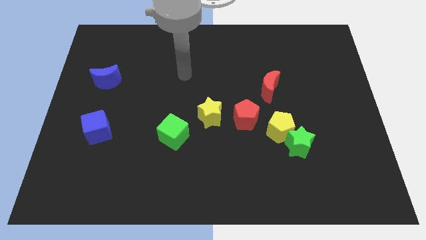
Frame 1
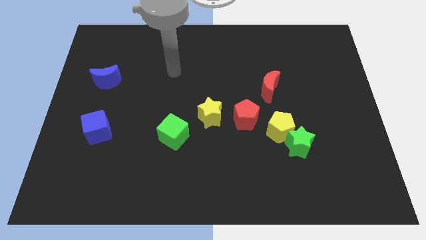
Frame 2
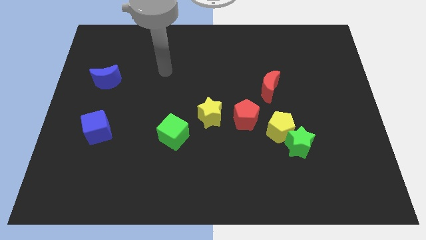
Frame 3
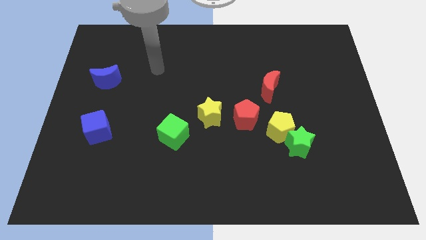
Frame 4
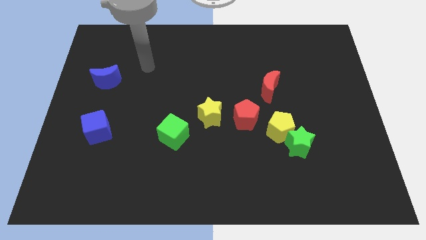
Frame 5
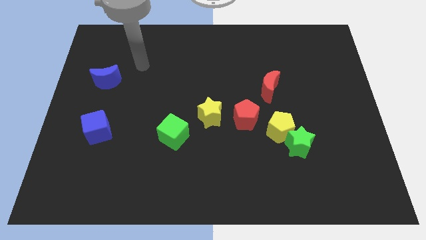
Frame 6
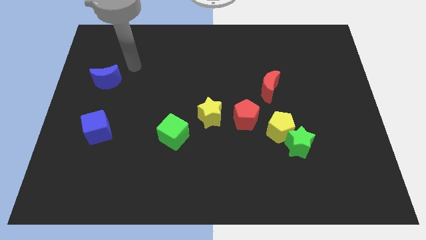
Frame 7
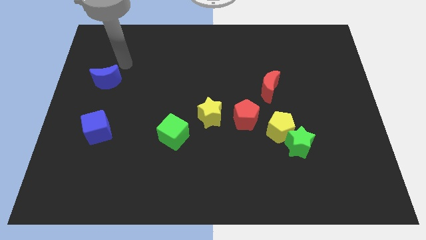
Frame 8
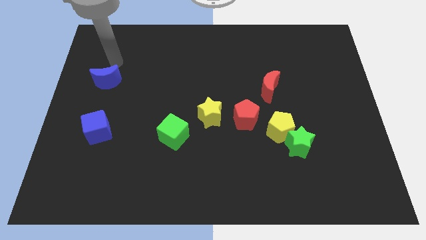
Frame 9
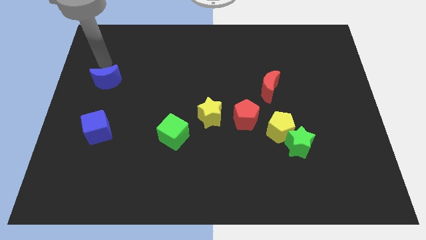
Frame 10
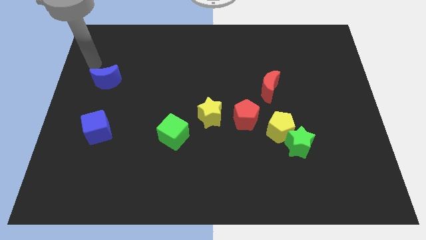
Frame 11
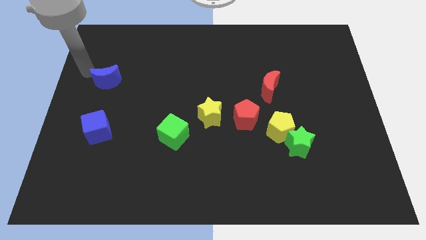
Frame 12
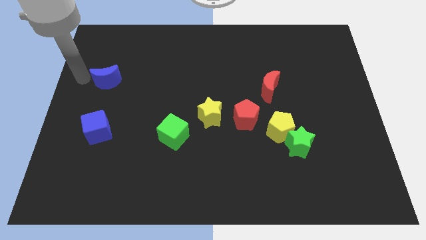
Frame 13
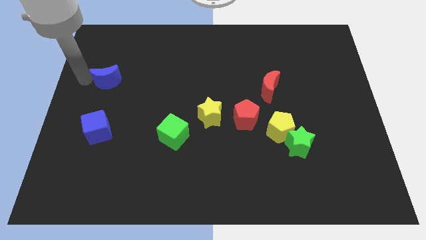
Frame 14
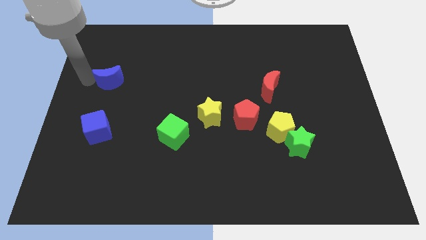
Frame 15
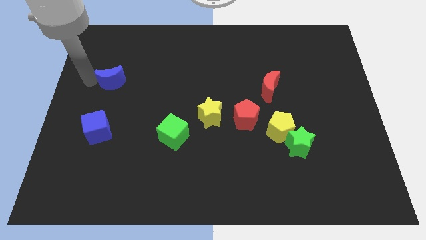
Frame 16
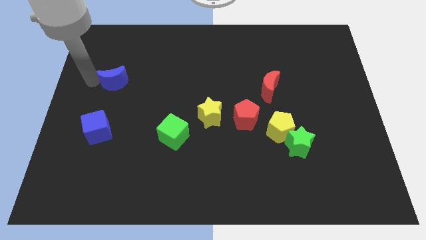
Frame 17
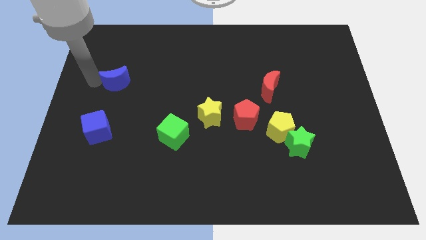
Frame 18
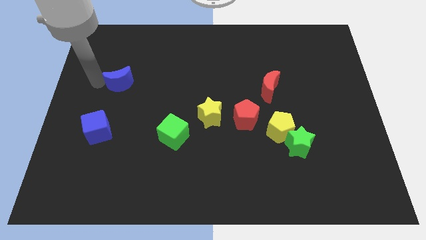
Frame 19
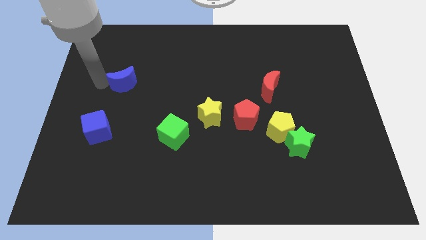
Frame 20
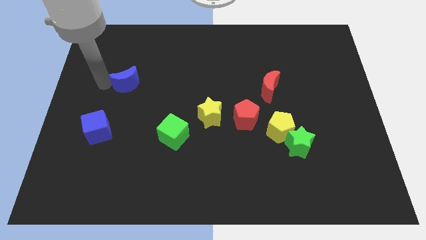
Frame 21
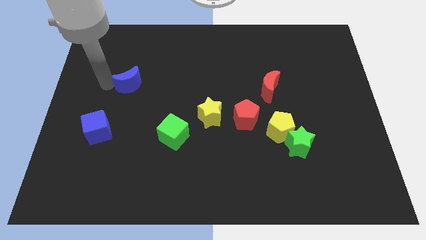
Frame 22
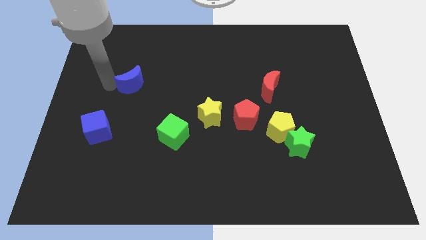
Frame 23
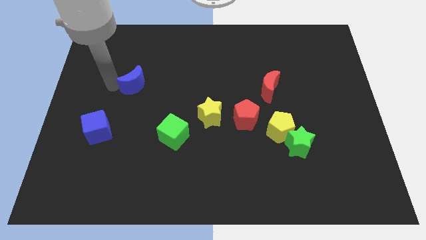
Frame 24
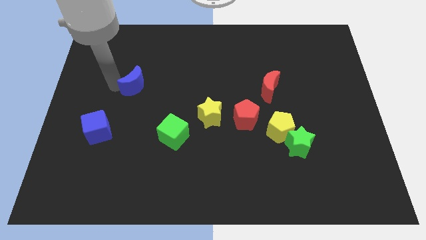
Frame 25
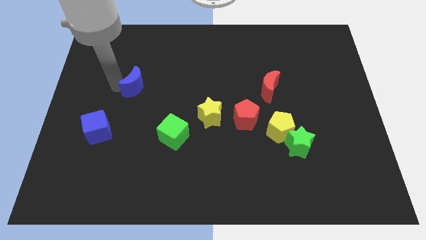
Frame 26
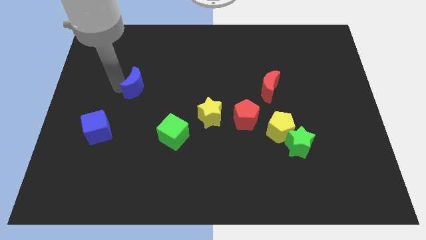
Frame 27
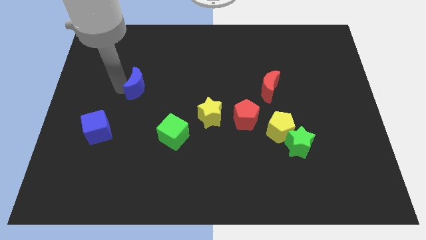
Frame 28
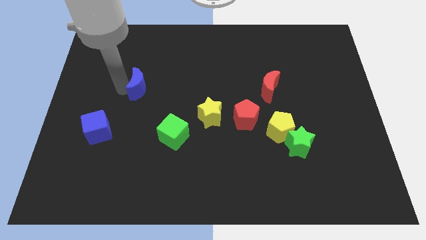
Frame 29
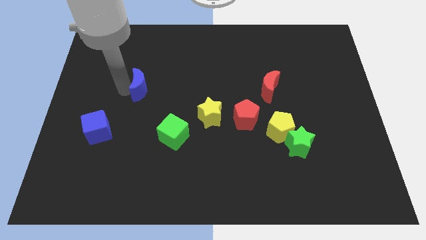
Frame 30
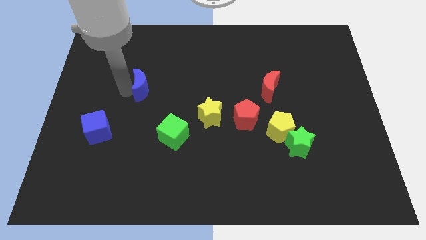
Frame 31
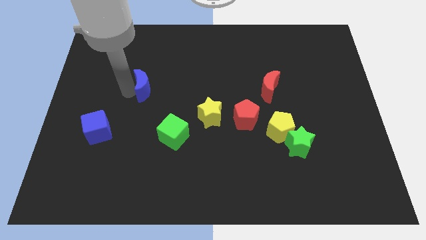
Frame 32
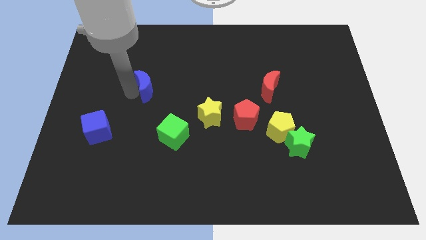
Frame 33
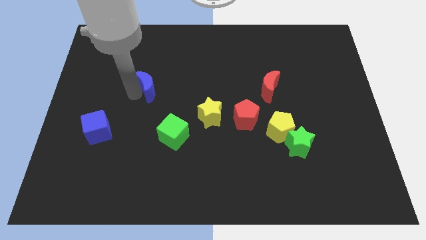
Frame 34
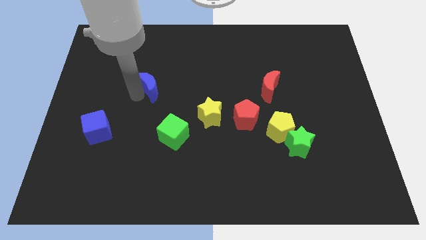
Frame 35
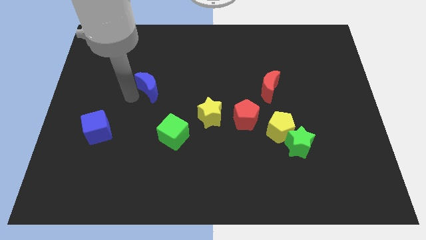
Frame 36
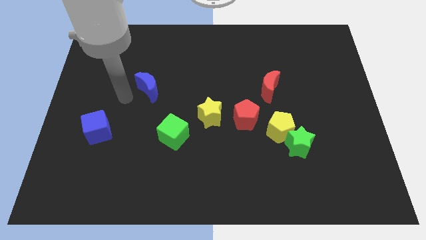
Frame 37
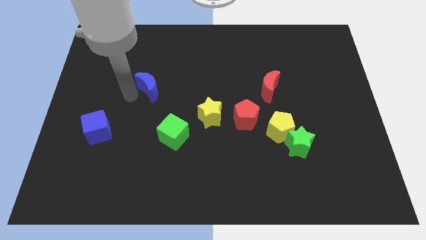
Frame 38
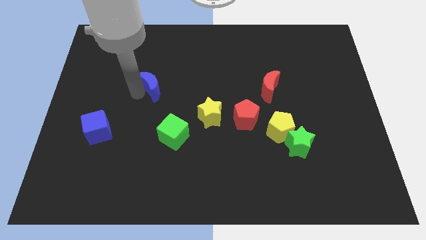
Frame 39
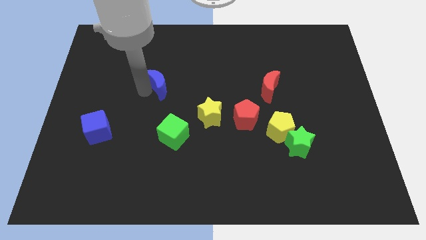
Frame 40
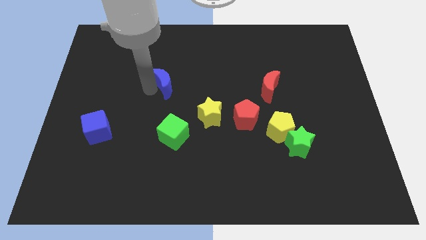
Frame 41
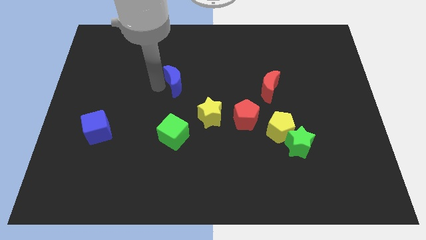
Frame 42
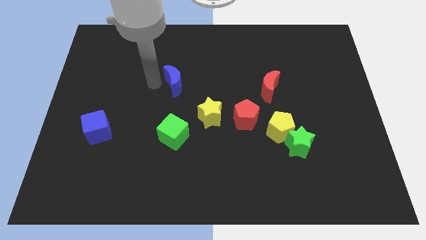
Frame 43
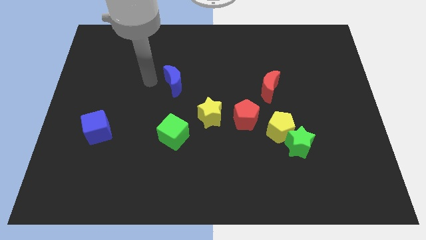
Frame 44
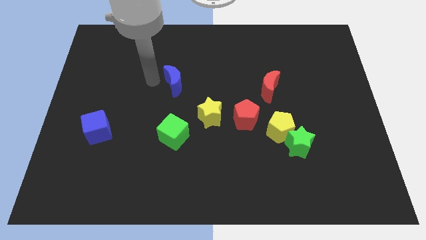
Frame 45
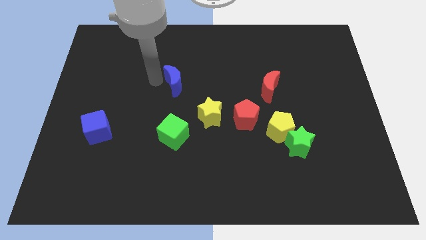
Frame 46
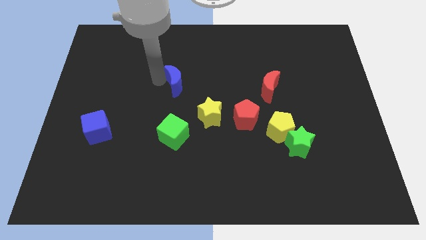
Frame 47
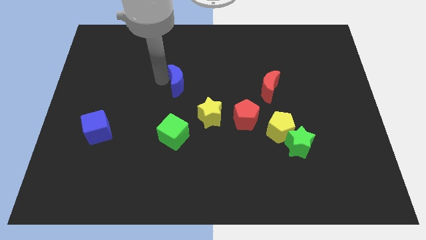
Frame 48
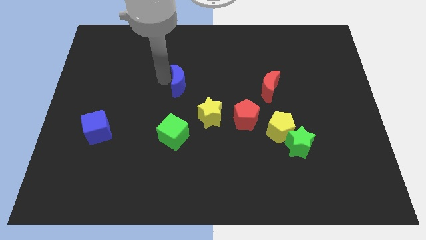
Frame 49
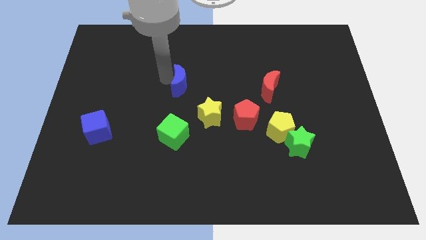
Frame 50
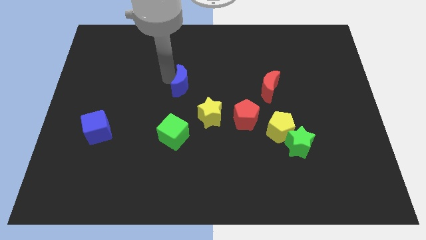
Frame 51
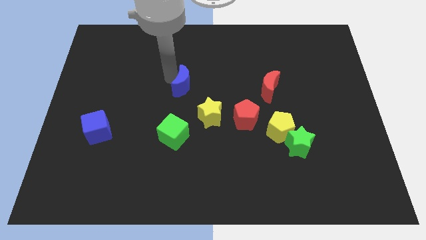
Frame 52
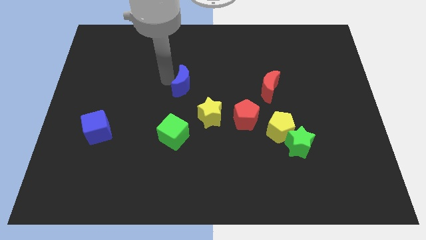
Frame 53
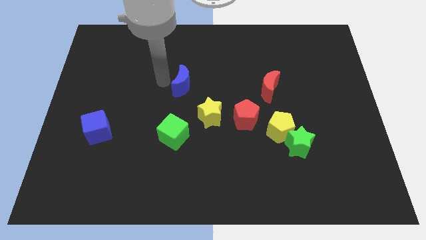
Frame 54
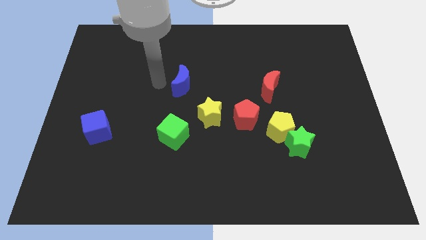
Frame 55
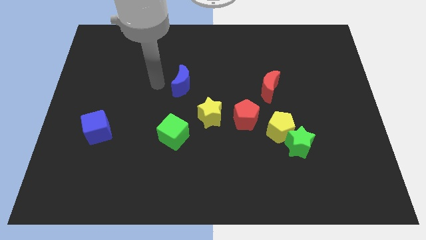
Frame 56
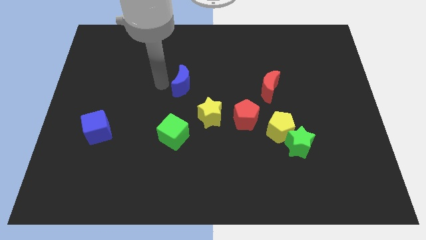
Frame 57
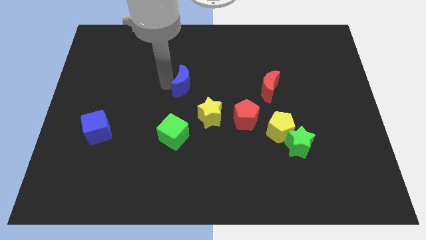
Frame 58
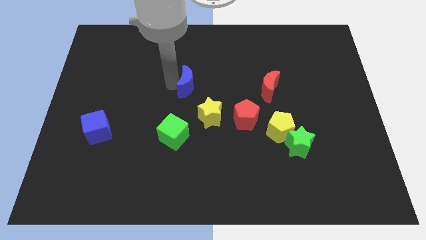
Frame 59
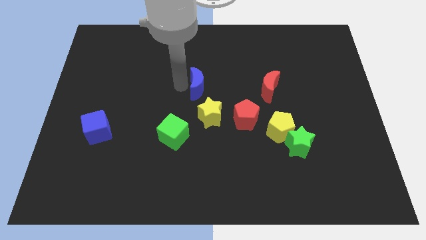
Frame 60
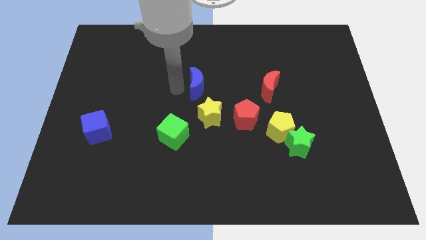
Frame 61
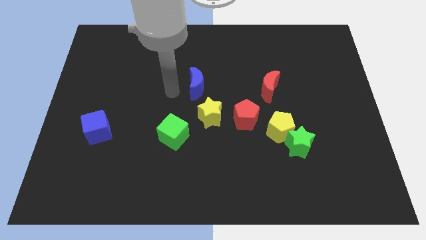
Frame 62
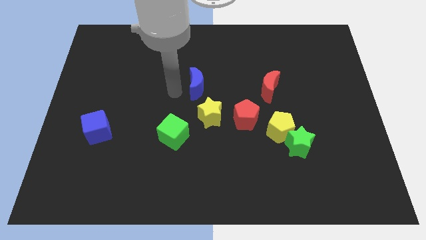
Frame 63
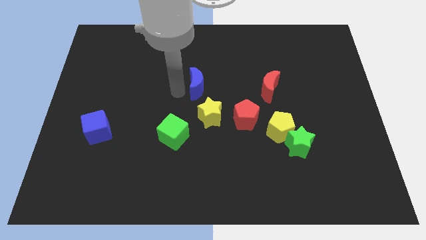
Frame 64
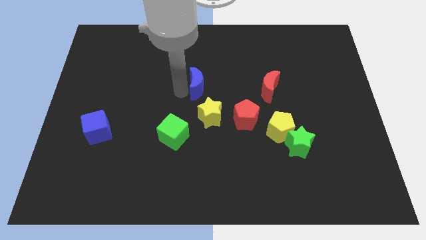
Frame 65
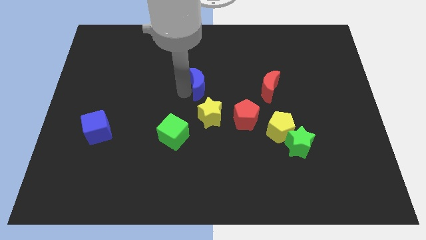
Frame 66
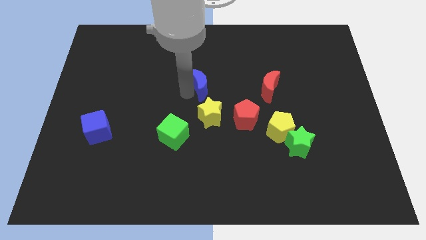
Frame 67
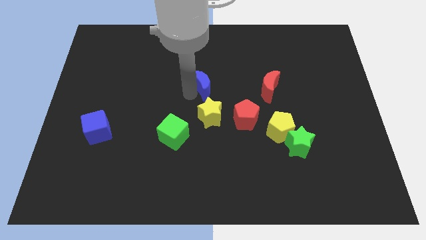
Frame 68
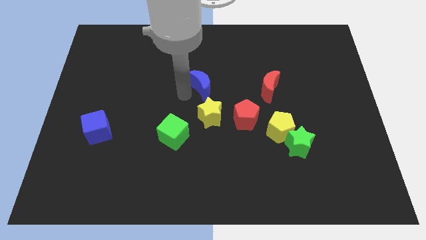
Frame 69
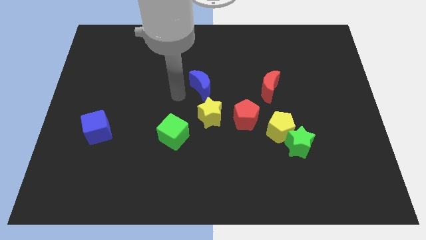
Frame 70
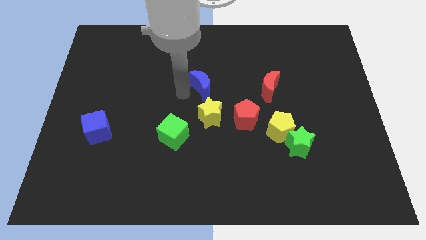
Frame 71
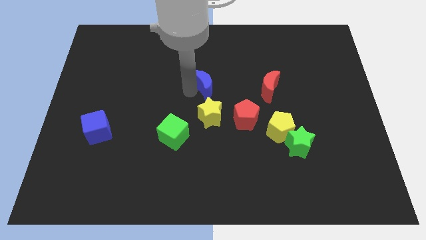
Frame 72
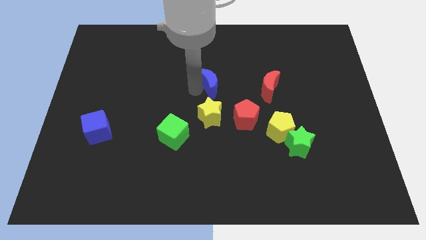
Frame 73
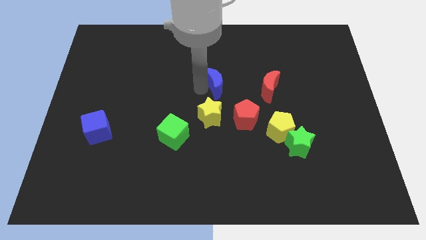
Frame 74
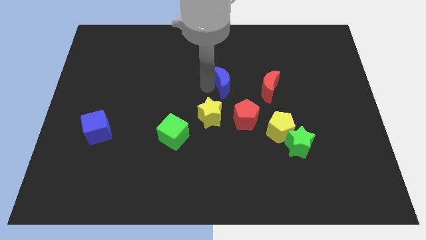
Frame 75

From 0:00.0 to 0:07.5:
push the blue moon above the red pentagon
